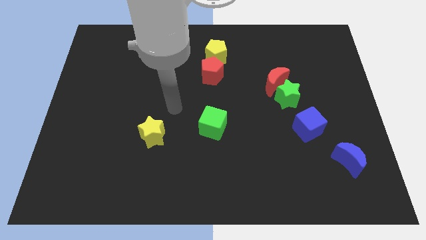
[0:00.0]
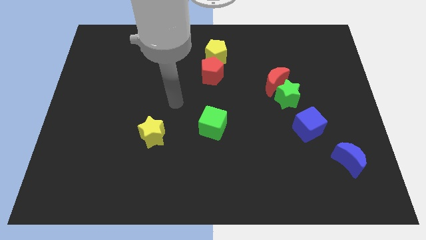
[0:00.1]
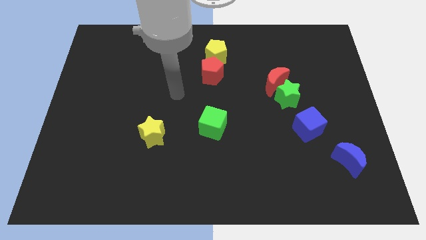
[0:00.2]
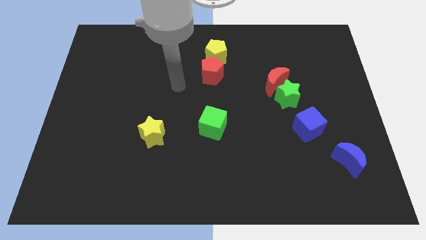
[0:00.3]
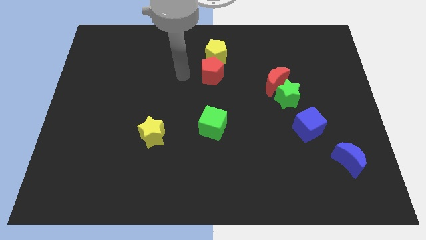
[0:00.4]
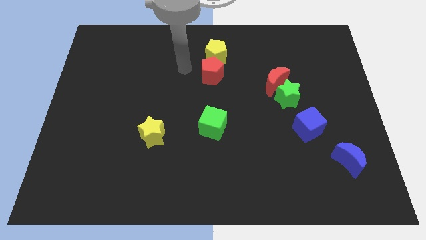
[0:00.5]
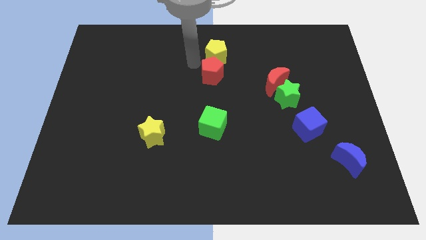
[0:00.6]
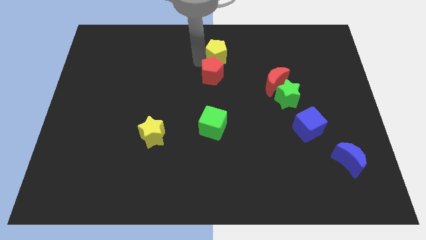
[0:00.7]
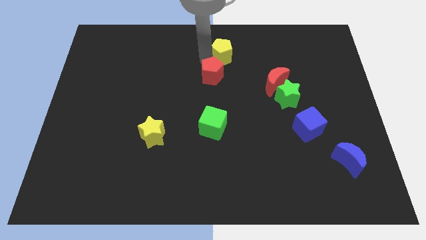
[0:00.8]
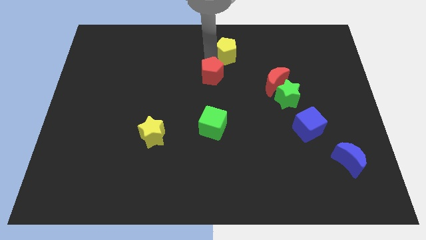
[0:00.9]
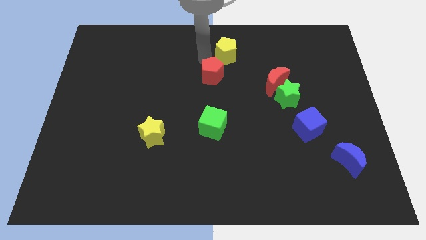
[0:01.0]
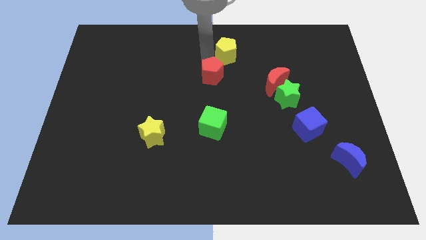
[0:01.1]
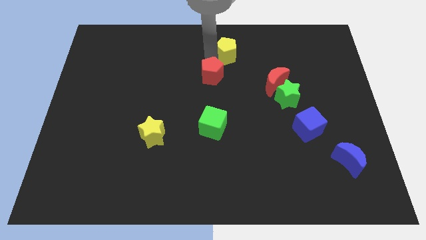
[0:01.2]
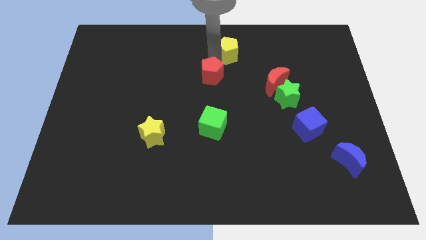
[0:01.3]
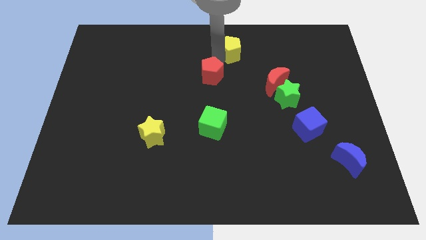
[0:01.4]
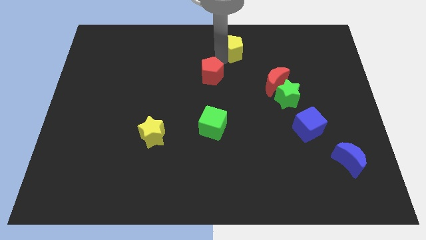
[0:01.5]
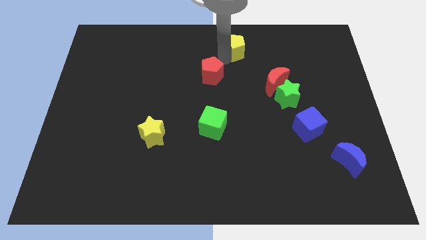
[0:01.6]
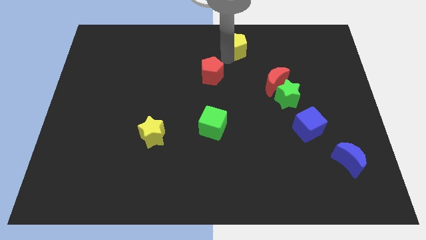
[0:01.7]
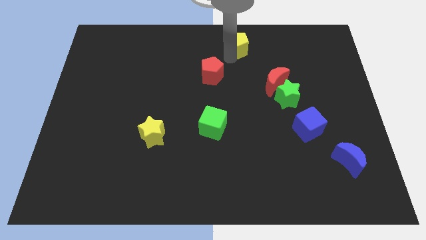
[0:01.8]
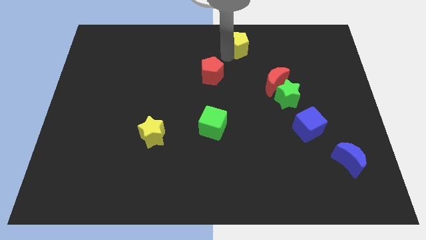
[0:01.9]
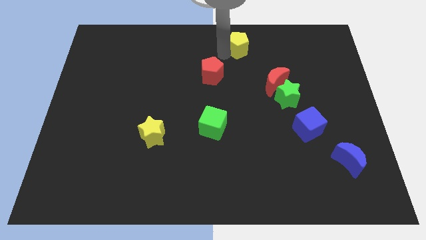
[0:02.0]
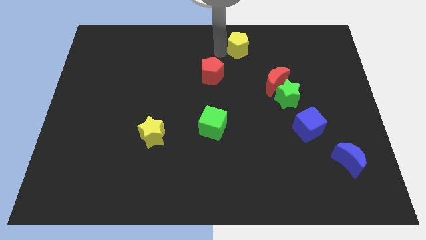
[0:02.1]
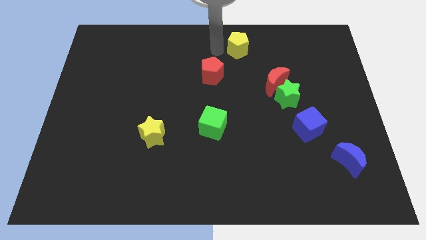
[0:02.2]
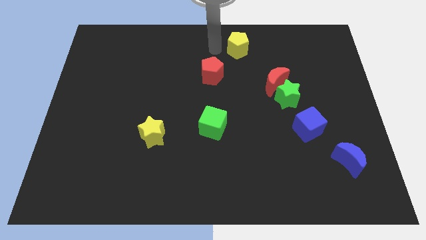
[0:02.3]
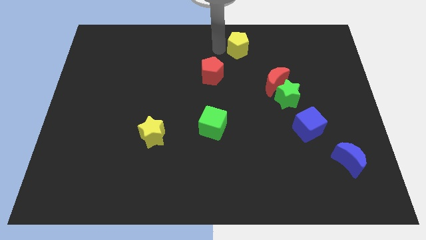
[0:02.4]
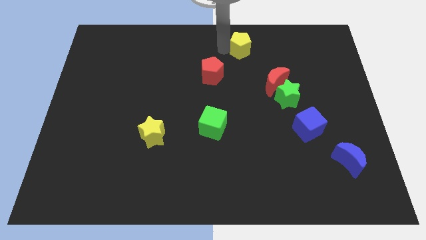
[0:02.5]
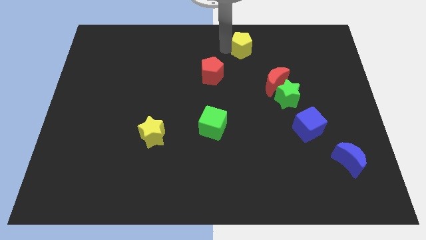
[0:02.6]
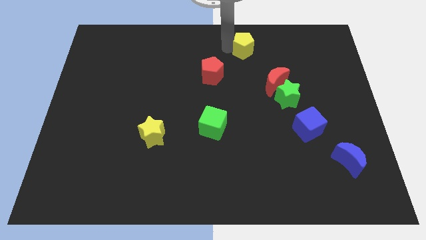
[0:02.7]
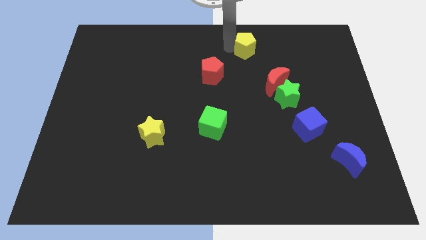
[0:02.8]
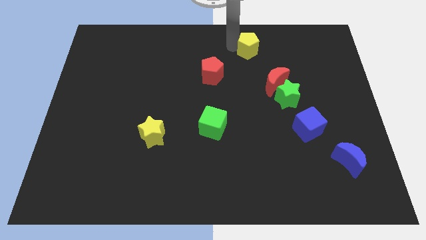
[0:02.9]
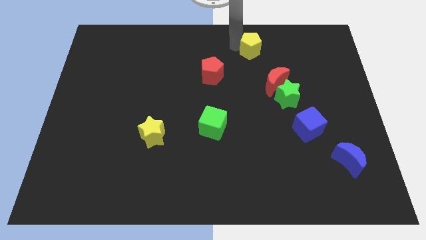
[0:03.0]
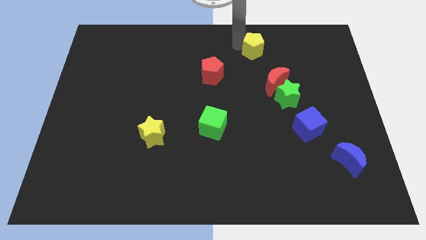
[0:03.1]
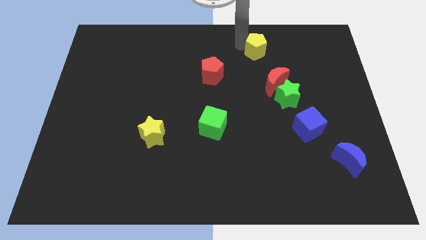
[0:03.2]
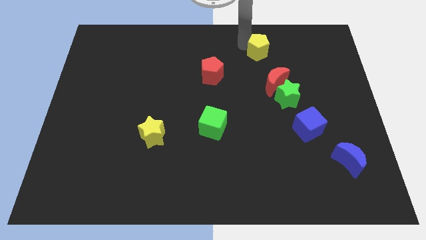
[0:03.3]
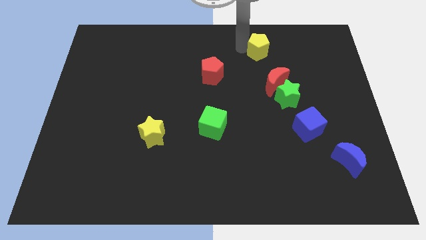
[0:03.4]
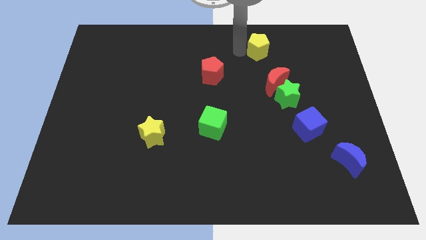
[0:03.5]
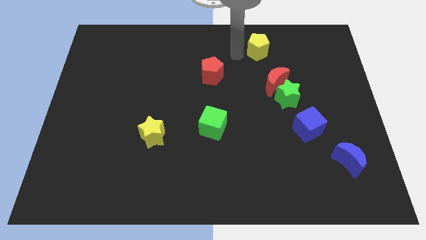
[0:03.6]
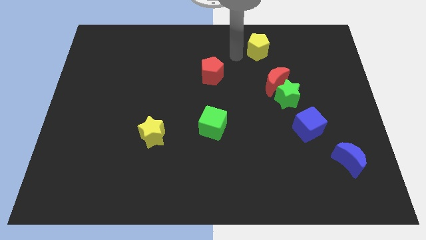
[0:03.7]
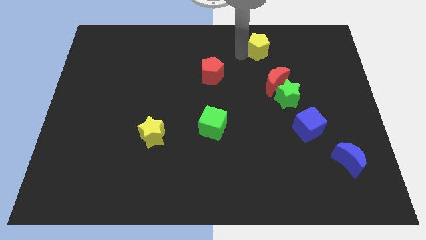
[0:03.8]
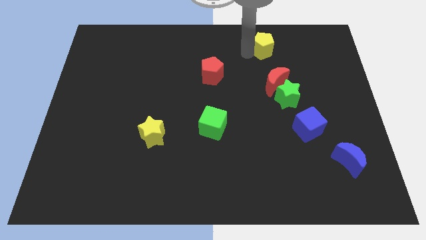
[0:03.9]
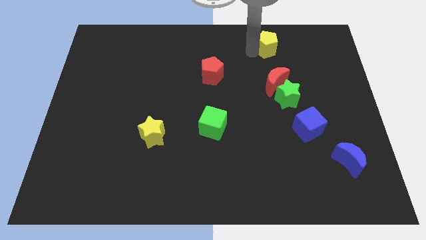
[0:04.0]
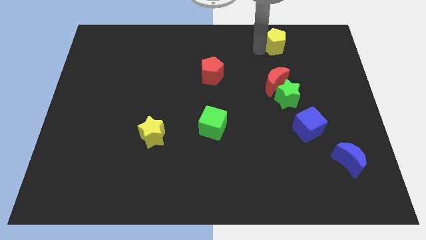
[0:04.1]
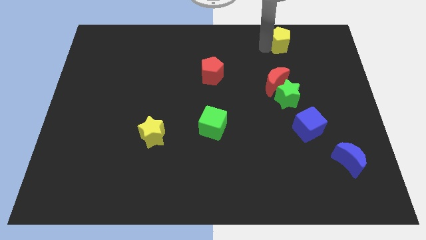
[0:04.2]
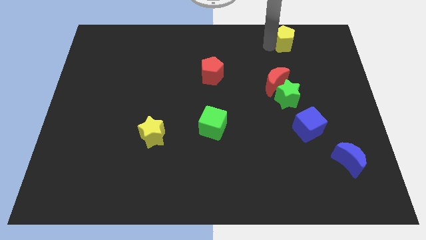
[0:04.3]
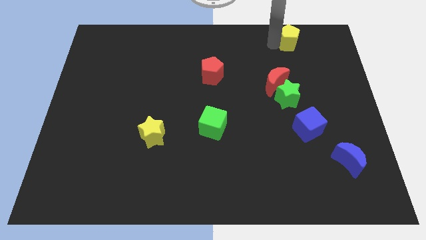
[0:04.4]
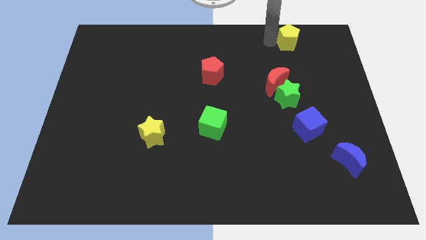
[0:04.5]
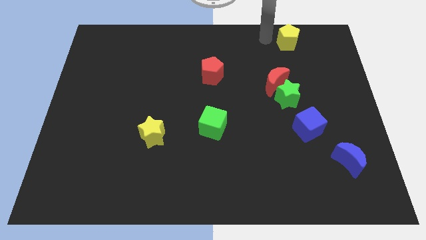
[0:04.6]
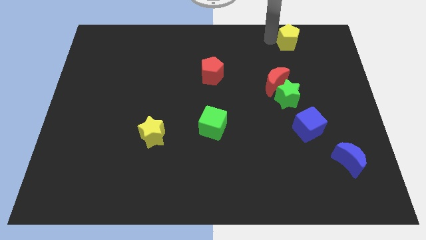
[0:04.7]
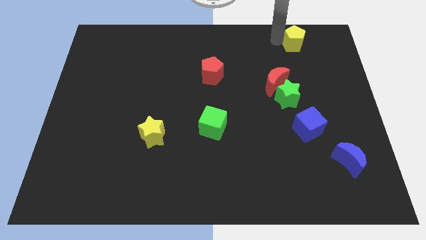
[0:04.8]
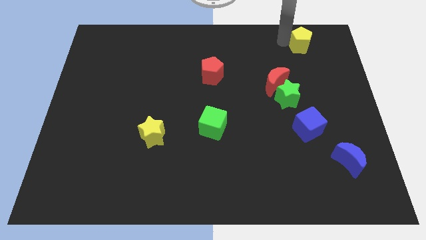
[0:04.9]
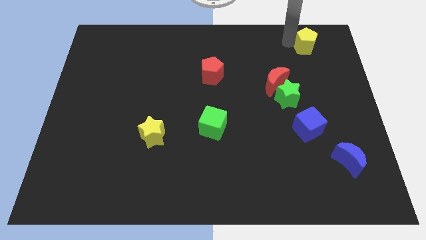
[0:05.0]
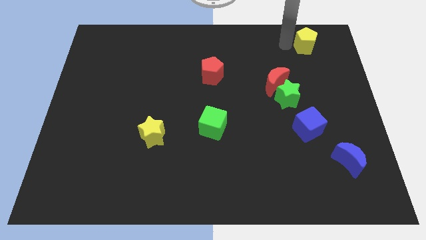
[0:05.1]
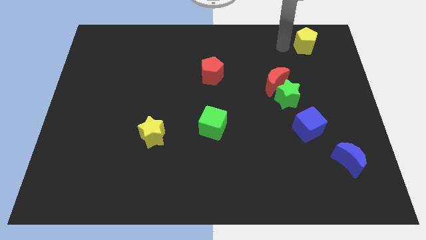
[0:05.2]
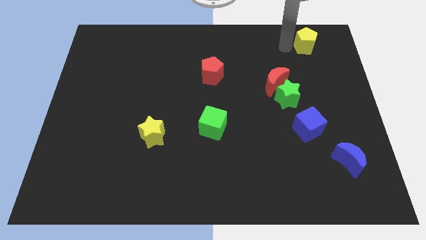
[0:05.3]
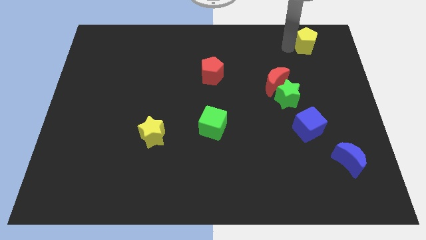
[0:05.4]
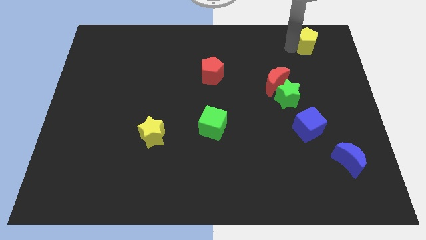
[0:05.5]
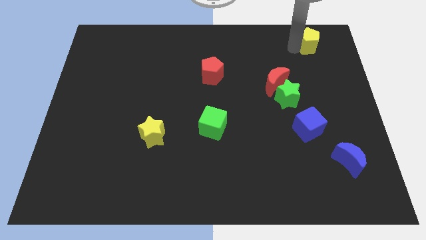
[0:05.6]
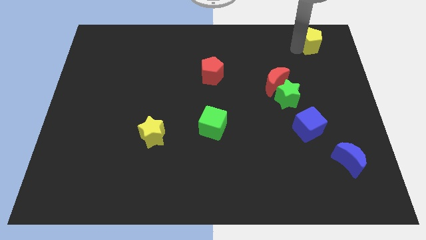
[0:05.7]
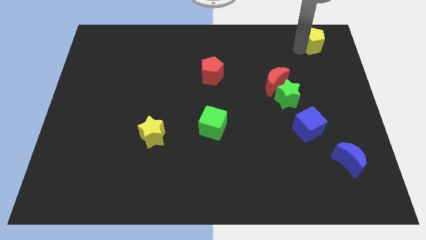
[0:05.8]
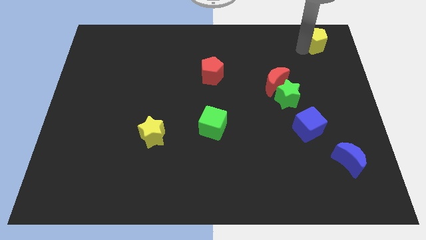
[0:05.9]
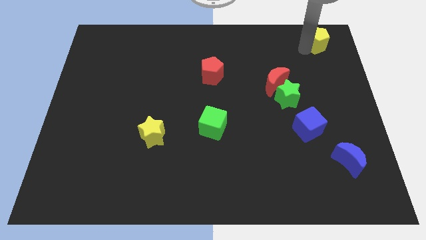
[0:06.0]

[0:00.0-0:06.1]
put the yellow pentagon to the top right

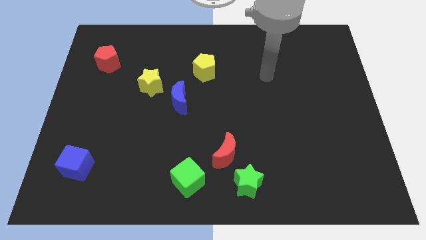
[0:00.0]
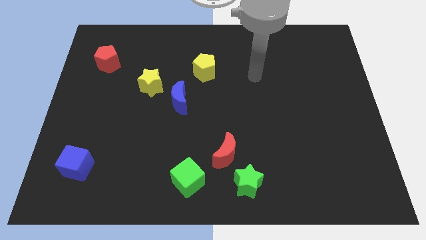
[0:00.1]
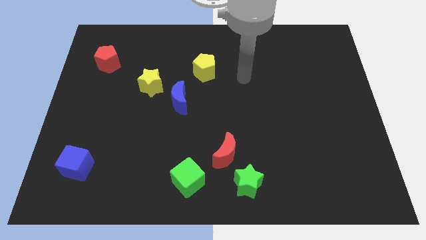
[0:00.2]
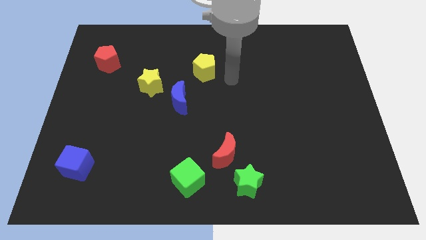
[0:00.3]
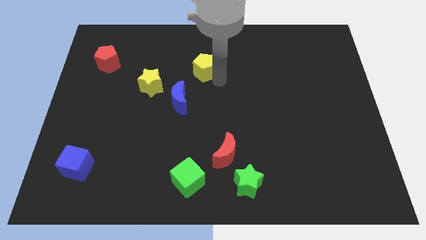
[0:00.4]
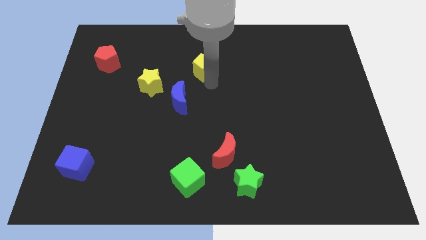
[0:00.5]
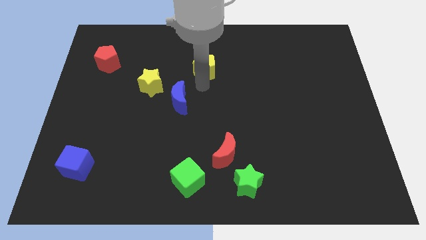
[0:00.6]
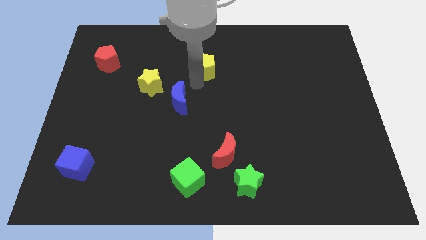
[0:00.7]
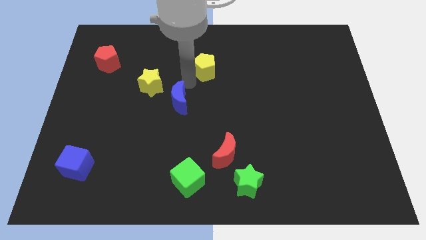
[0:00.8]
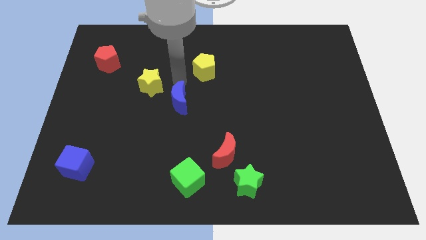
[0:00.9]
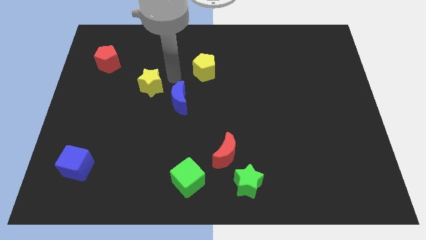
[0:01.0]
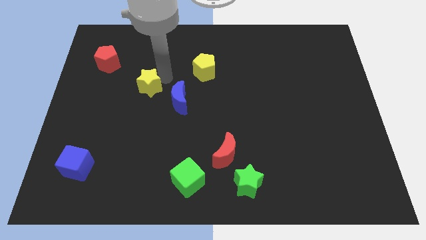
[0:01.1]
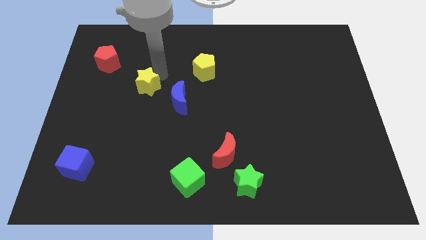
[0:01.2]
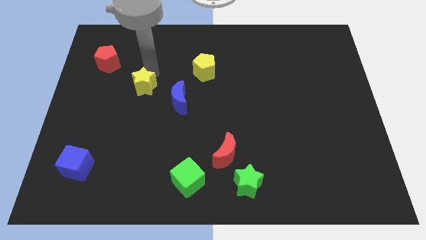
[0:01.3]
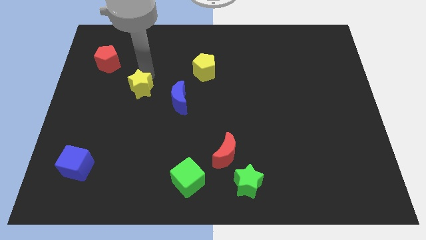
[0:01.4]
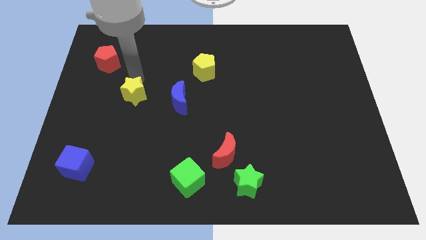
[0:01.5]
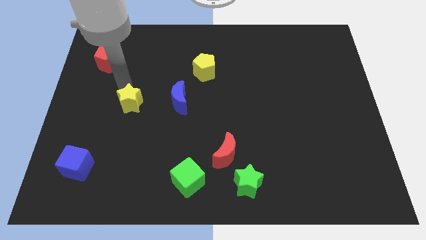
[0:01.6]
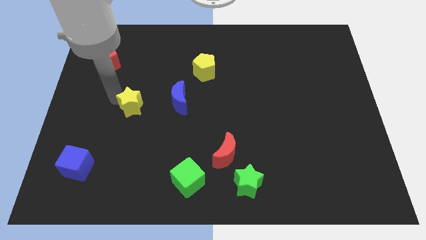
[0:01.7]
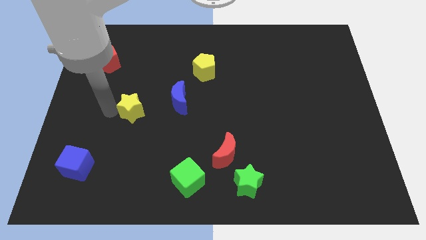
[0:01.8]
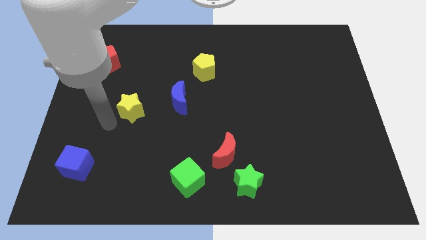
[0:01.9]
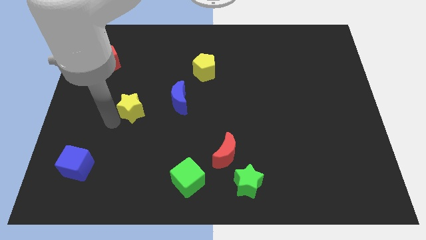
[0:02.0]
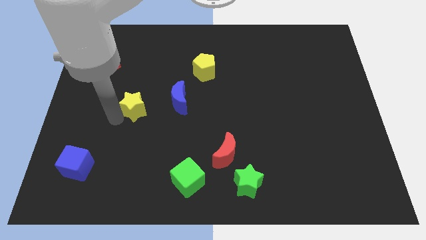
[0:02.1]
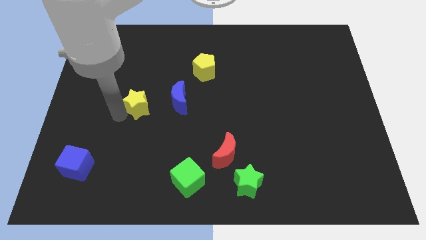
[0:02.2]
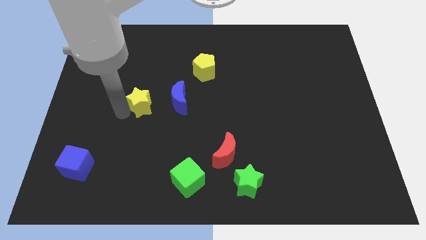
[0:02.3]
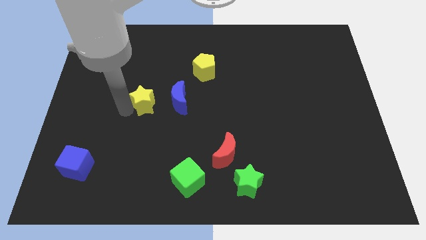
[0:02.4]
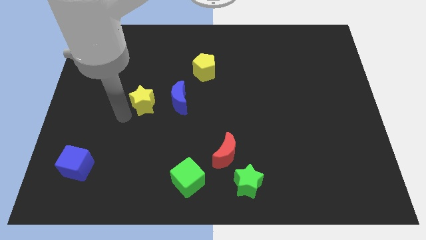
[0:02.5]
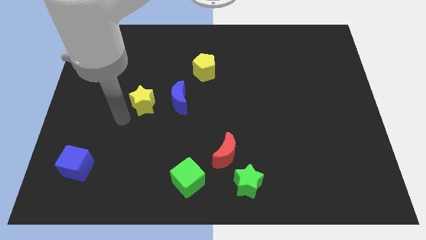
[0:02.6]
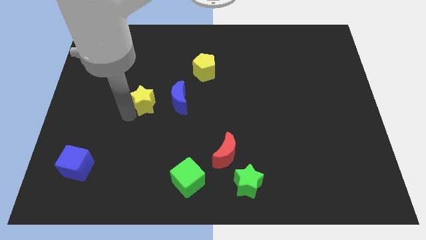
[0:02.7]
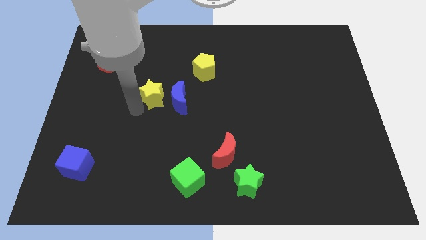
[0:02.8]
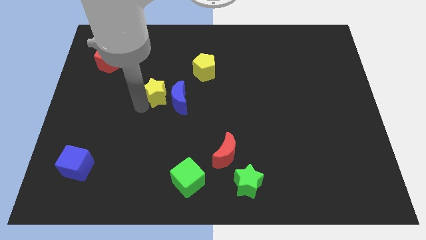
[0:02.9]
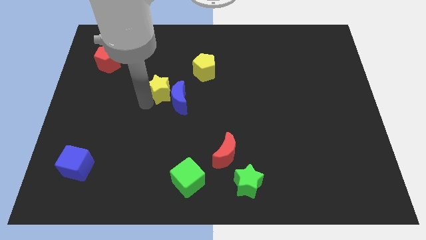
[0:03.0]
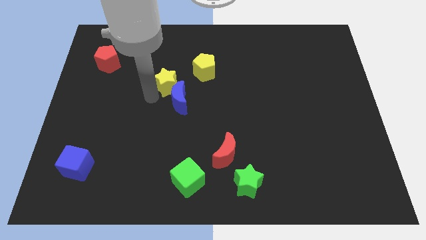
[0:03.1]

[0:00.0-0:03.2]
slide the yellow star to the center
